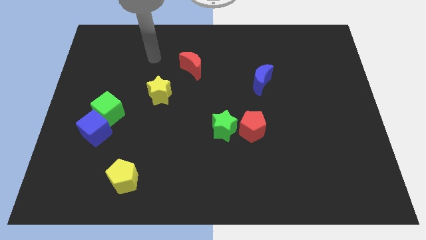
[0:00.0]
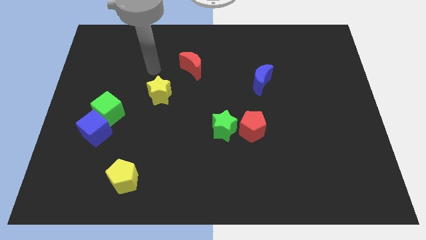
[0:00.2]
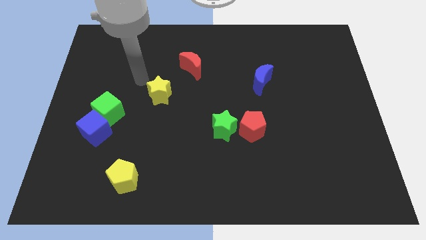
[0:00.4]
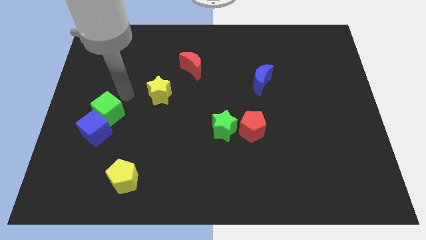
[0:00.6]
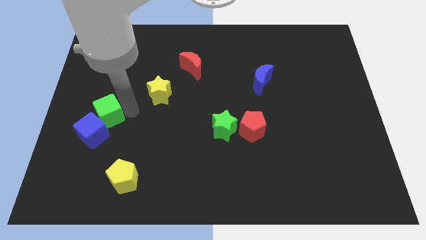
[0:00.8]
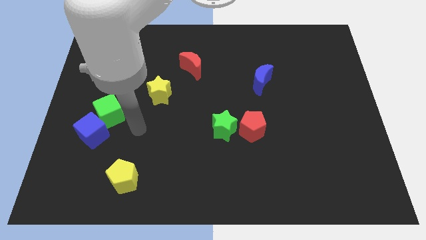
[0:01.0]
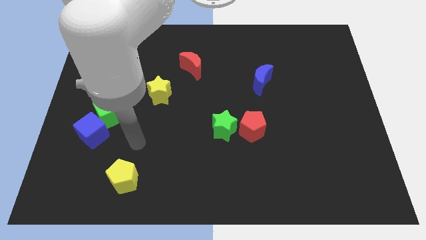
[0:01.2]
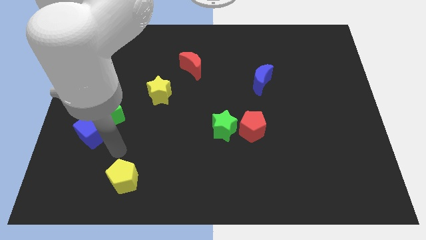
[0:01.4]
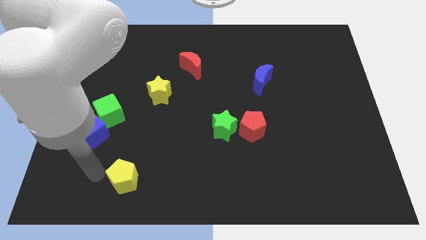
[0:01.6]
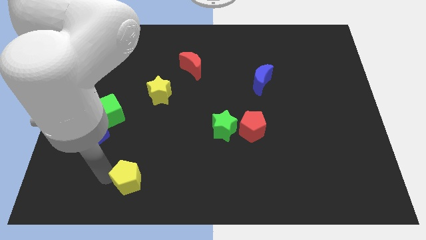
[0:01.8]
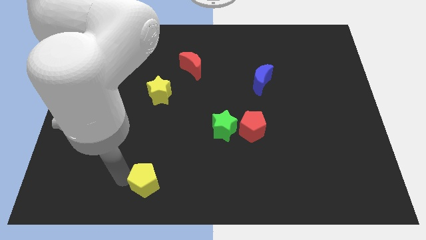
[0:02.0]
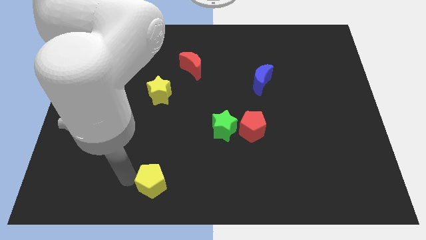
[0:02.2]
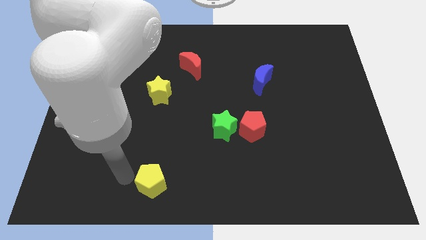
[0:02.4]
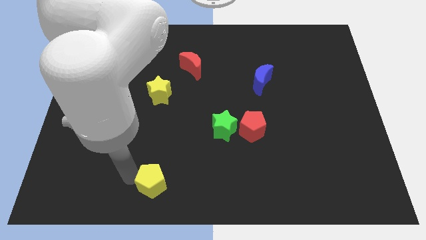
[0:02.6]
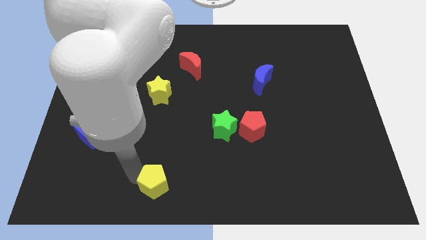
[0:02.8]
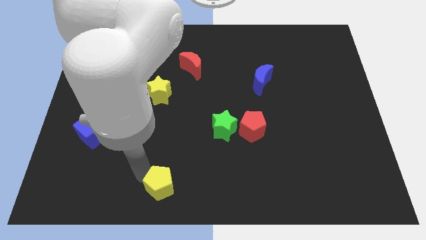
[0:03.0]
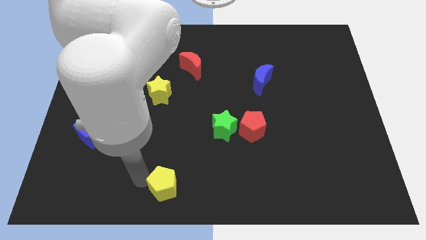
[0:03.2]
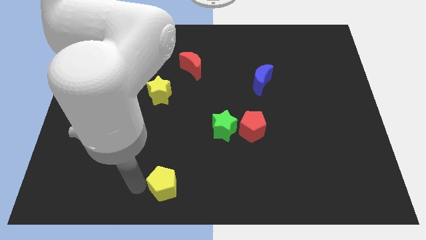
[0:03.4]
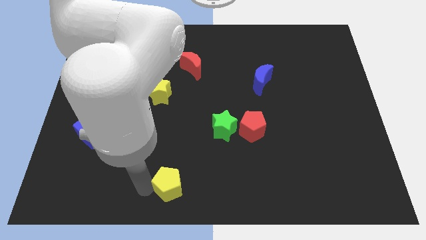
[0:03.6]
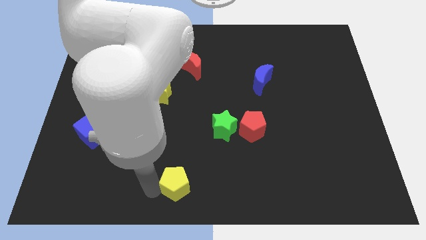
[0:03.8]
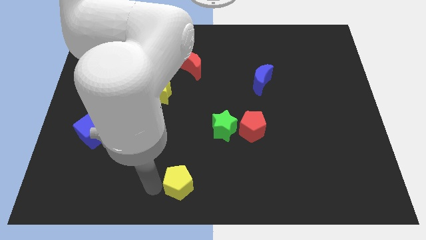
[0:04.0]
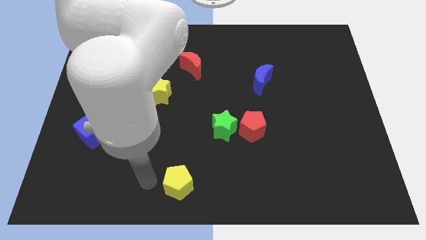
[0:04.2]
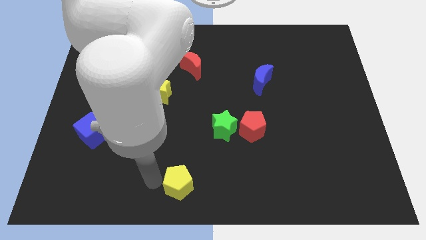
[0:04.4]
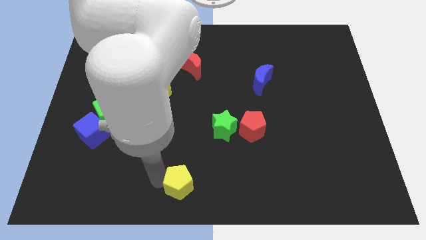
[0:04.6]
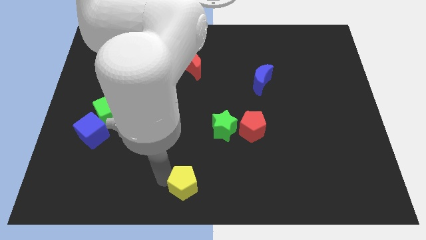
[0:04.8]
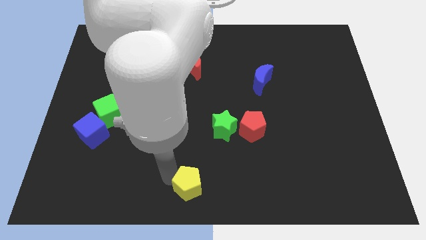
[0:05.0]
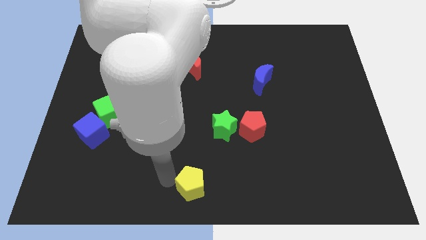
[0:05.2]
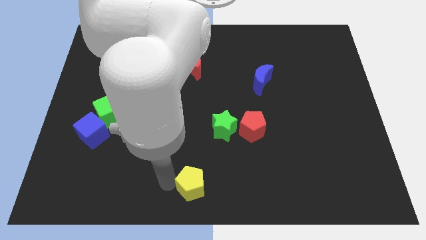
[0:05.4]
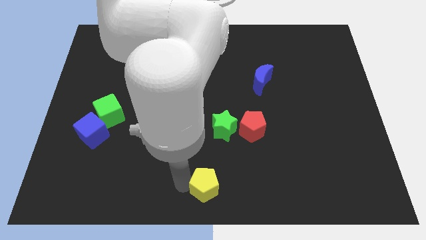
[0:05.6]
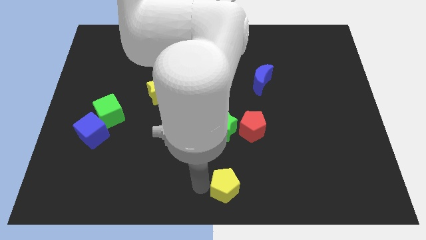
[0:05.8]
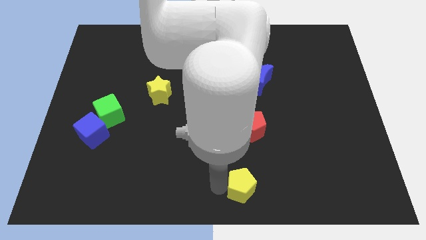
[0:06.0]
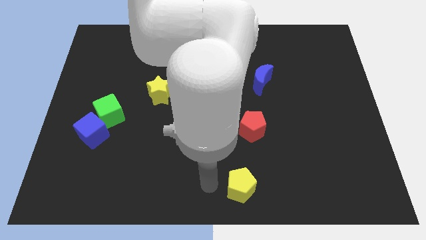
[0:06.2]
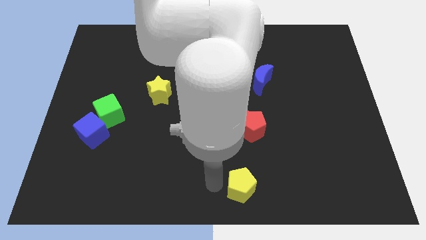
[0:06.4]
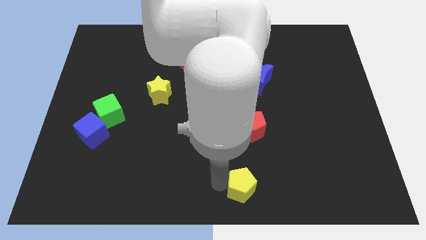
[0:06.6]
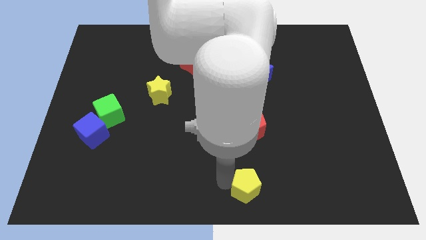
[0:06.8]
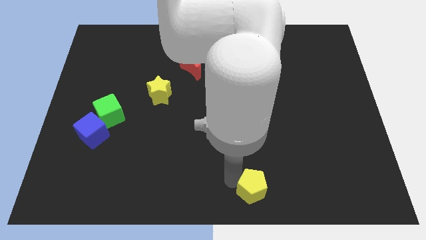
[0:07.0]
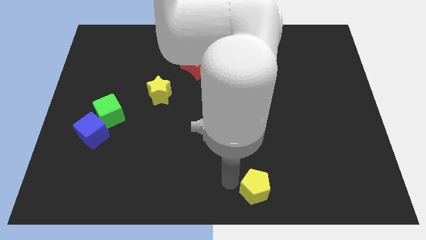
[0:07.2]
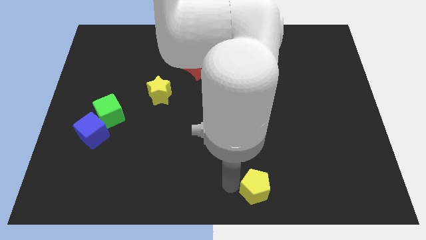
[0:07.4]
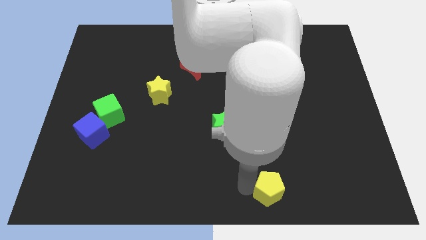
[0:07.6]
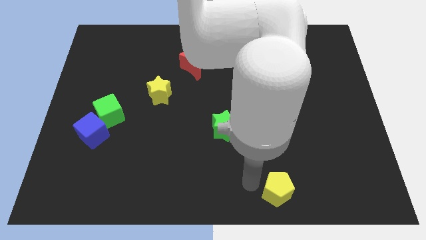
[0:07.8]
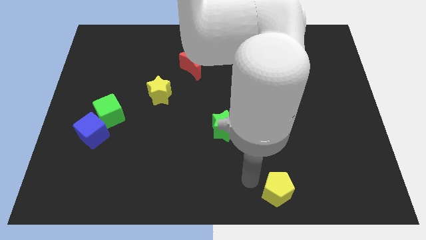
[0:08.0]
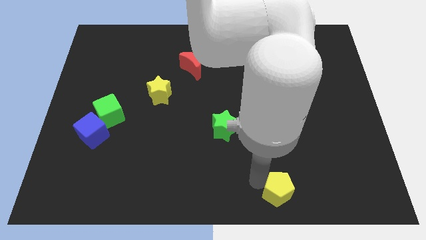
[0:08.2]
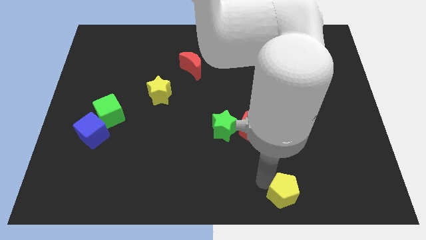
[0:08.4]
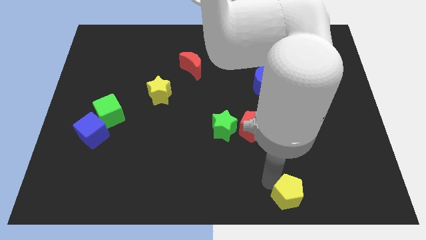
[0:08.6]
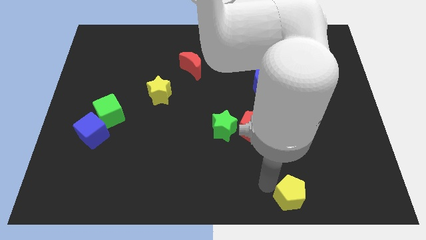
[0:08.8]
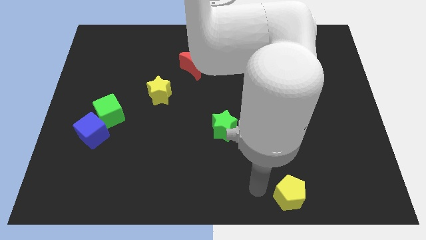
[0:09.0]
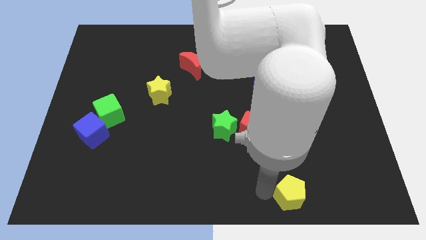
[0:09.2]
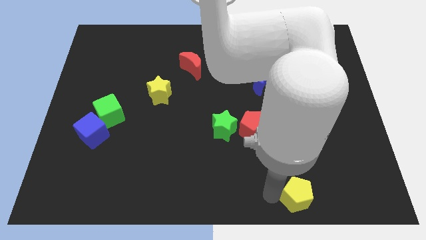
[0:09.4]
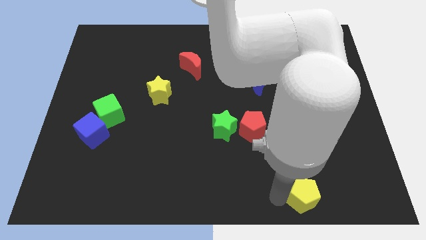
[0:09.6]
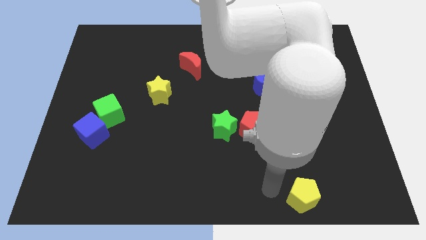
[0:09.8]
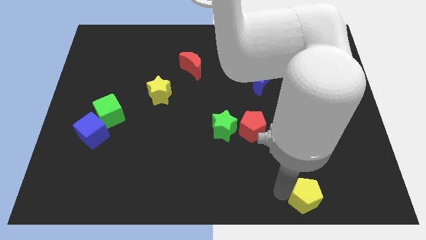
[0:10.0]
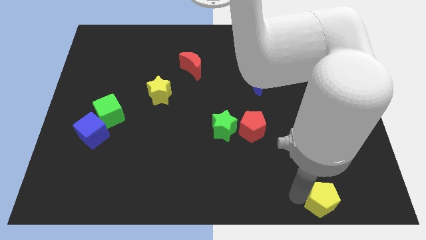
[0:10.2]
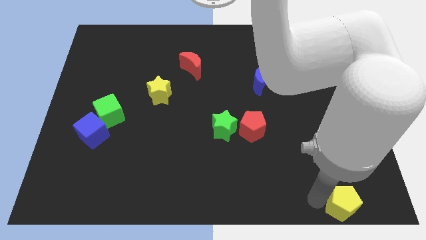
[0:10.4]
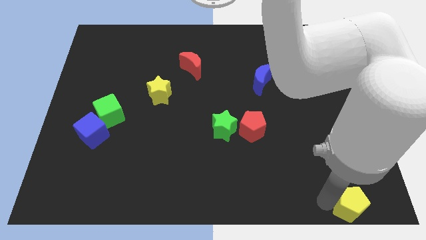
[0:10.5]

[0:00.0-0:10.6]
push the yellow pentagon to the bottom right corner
